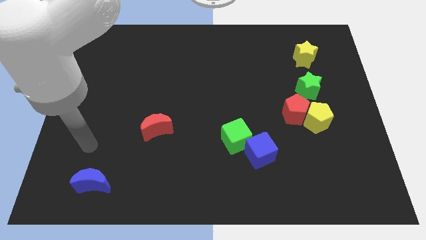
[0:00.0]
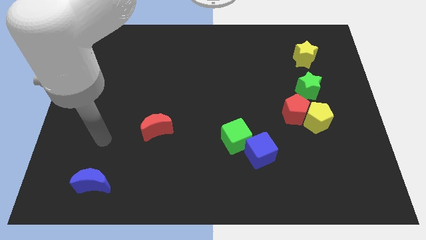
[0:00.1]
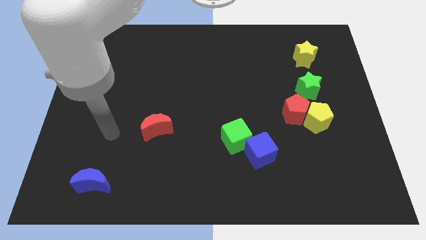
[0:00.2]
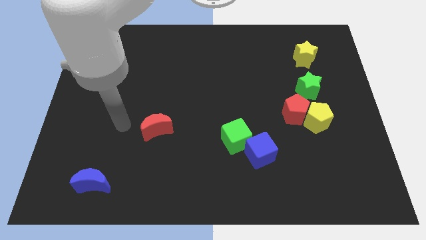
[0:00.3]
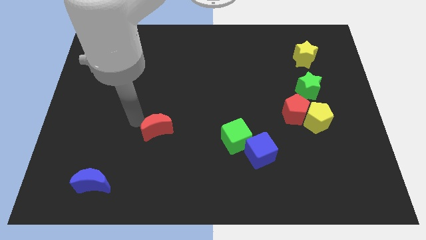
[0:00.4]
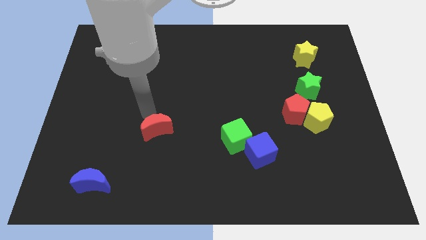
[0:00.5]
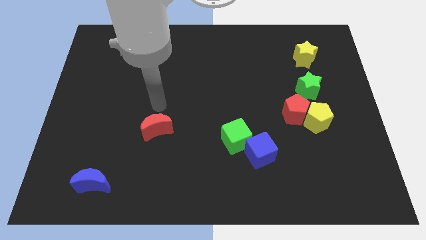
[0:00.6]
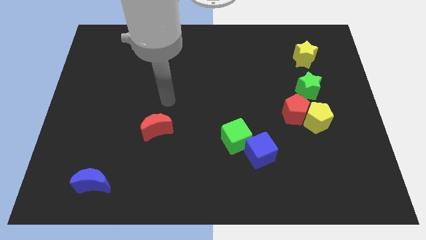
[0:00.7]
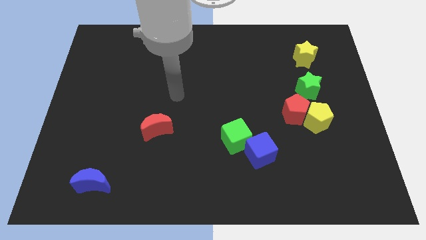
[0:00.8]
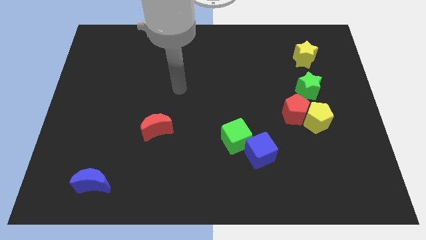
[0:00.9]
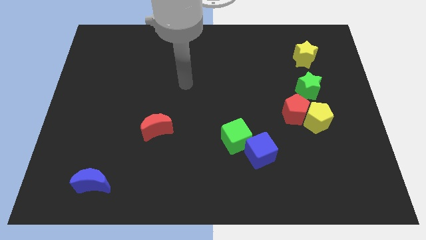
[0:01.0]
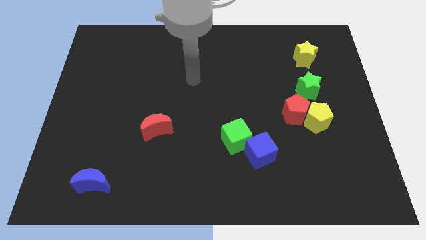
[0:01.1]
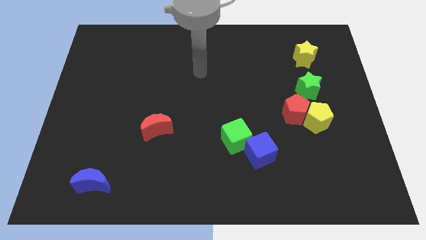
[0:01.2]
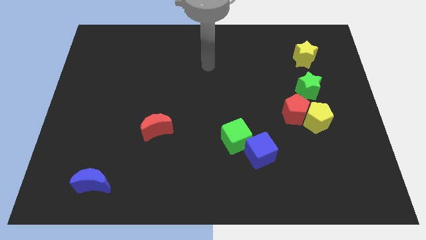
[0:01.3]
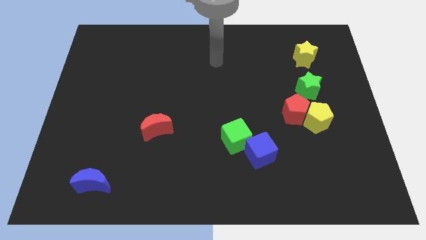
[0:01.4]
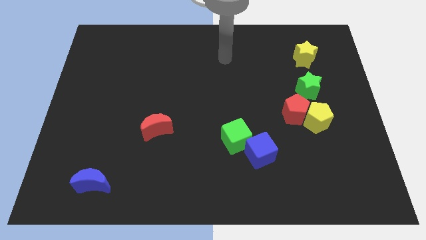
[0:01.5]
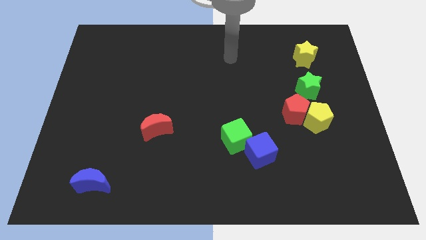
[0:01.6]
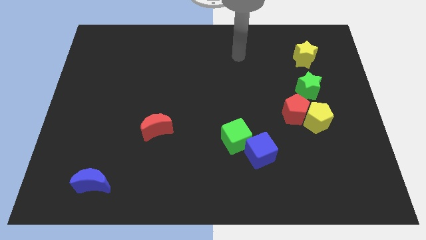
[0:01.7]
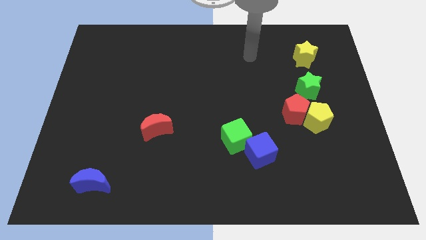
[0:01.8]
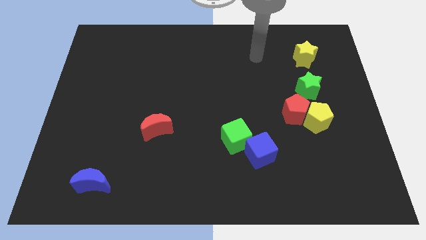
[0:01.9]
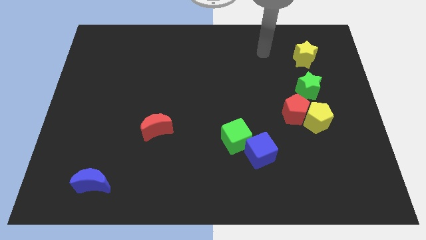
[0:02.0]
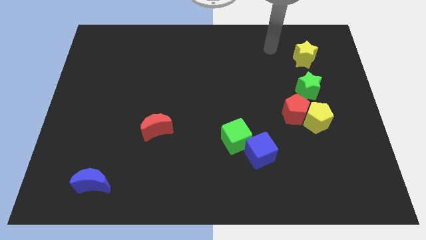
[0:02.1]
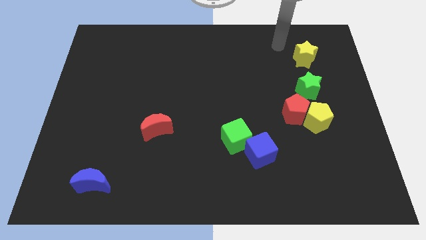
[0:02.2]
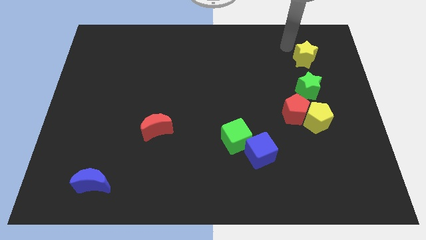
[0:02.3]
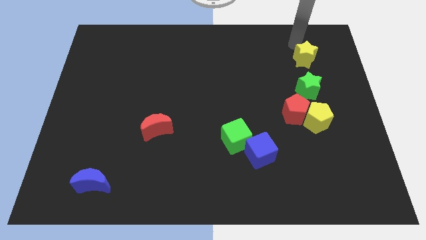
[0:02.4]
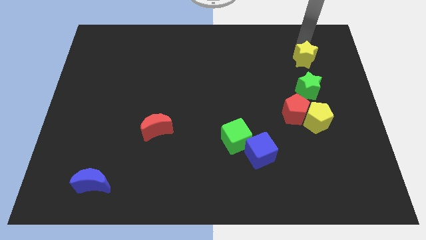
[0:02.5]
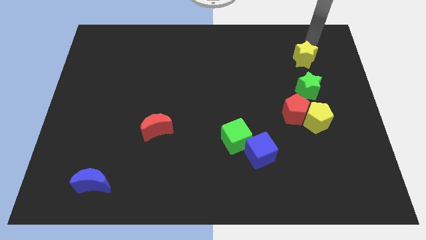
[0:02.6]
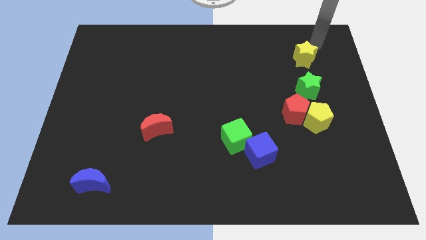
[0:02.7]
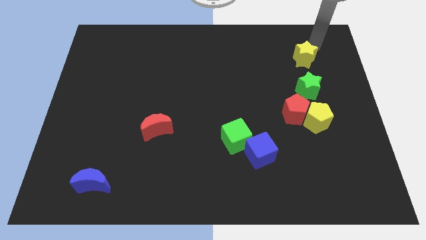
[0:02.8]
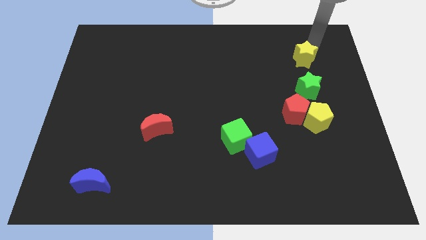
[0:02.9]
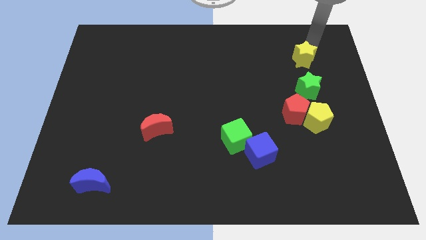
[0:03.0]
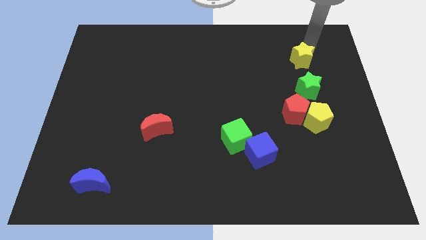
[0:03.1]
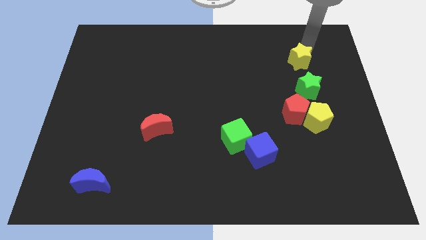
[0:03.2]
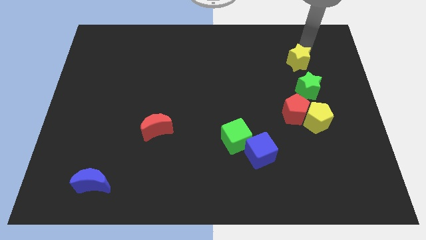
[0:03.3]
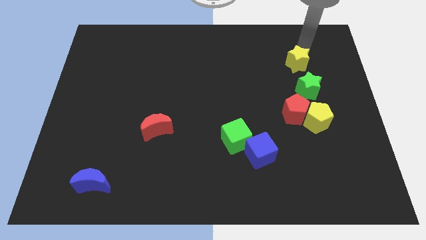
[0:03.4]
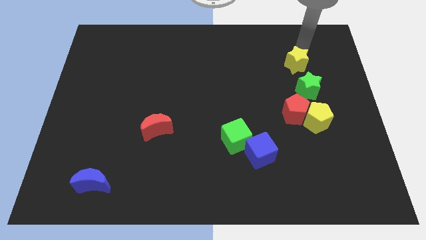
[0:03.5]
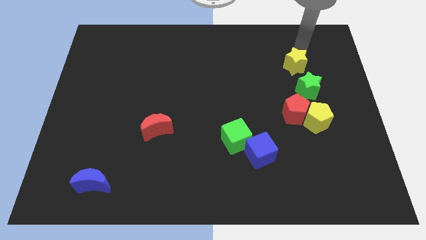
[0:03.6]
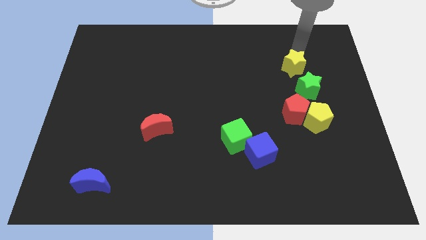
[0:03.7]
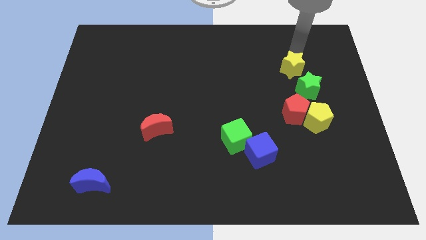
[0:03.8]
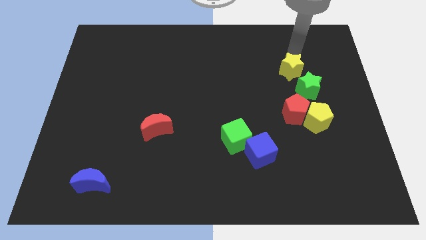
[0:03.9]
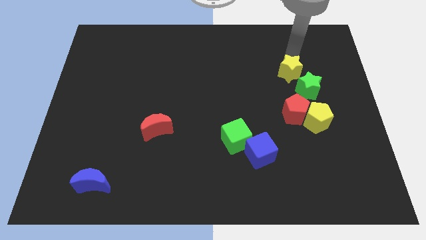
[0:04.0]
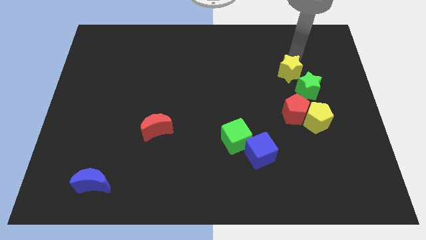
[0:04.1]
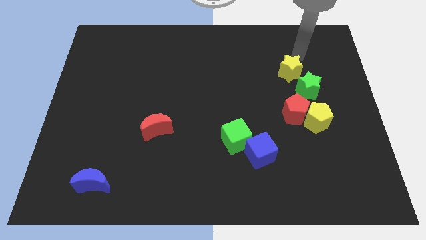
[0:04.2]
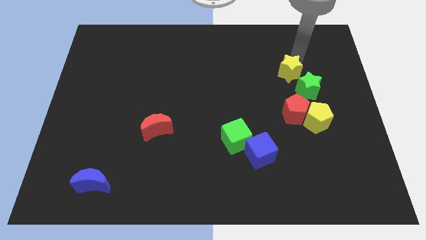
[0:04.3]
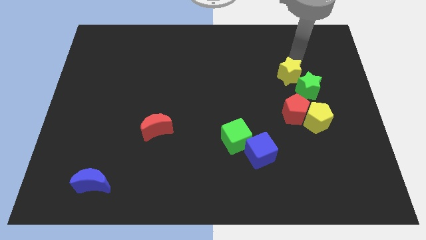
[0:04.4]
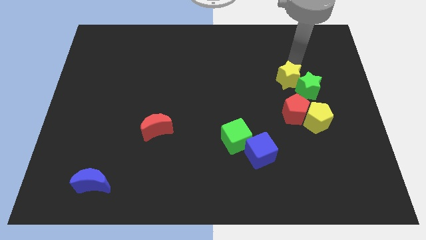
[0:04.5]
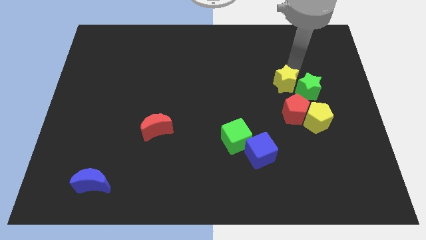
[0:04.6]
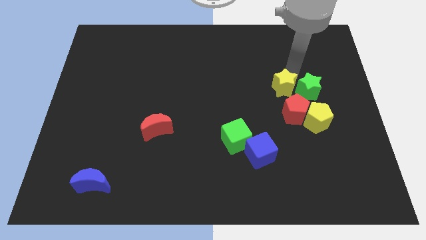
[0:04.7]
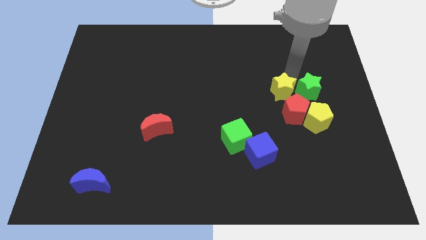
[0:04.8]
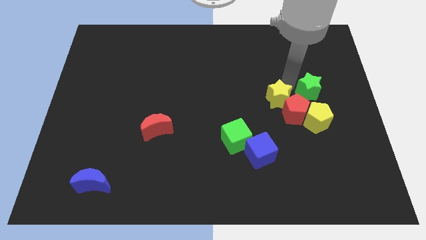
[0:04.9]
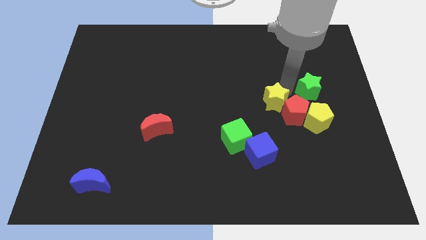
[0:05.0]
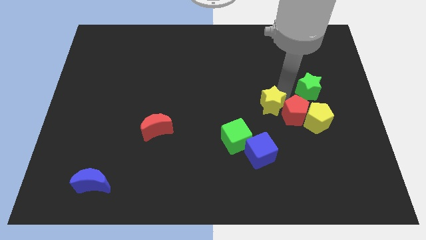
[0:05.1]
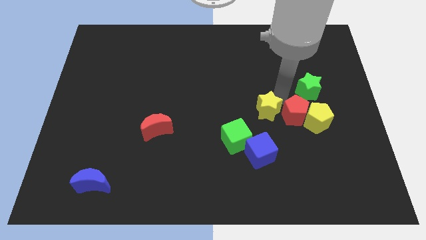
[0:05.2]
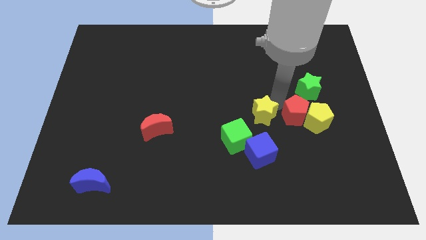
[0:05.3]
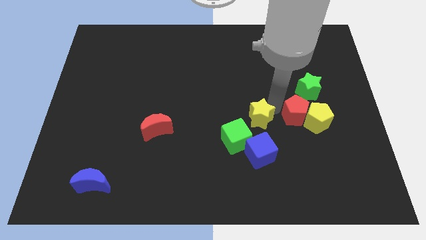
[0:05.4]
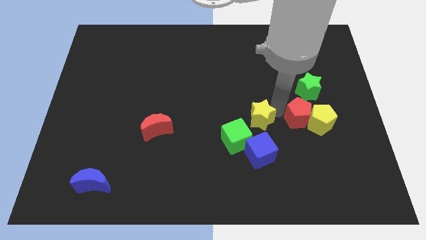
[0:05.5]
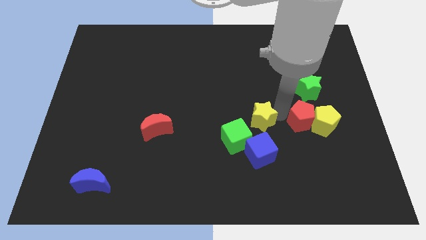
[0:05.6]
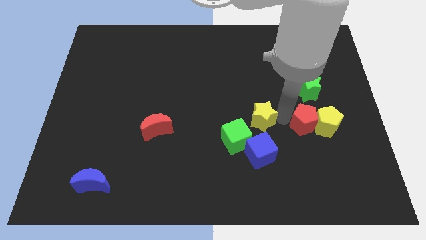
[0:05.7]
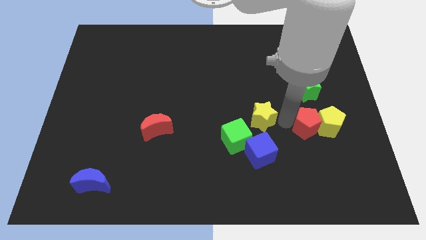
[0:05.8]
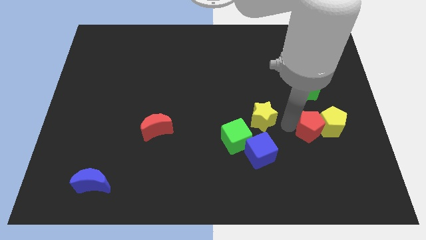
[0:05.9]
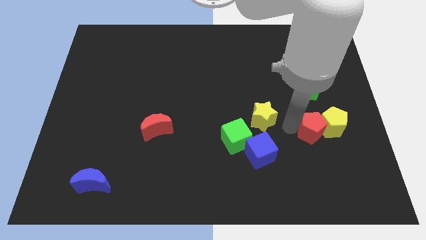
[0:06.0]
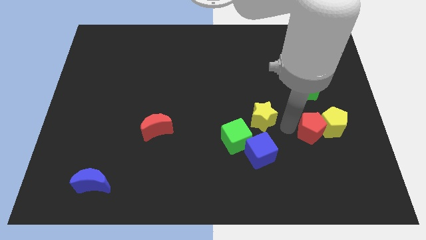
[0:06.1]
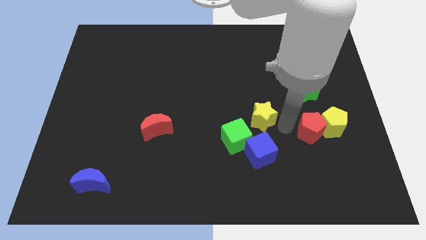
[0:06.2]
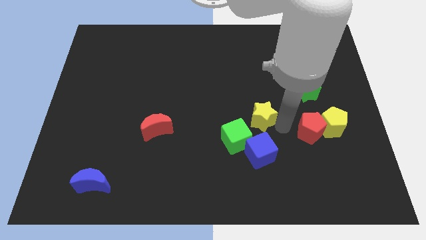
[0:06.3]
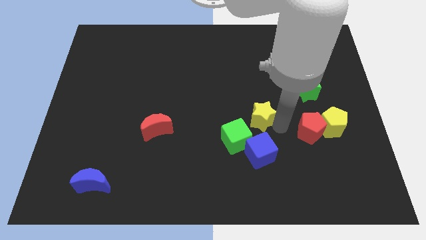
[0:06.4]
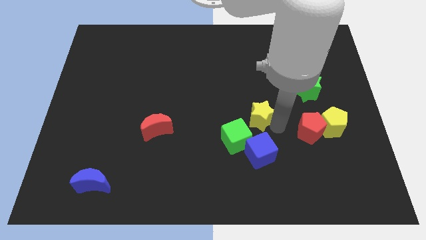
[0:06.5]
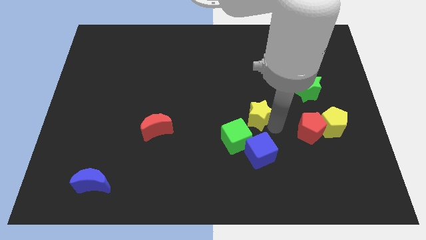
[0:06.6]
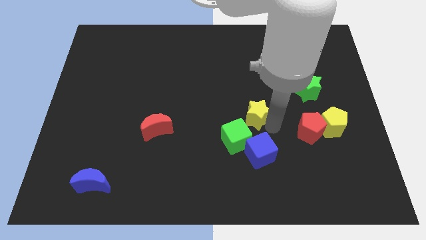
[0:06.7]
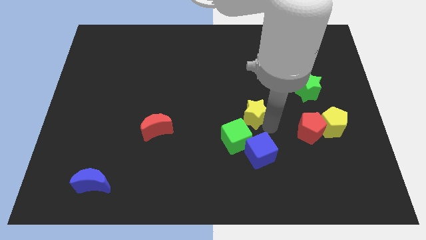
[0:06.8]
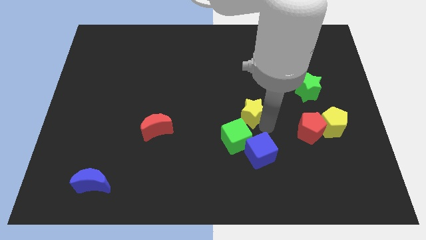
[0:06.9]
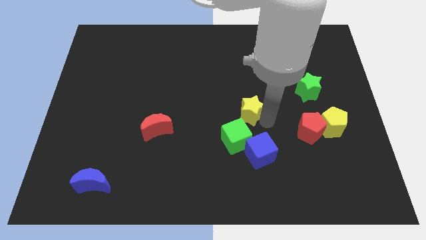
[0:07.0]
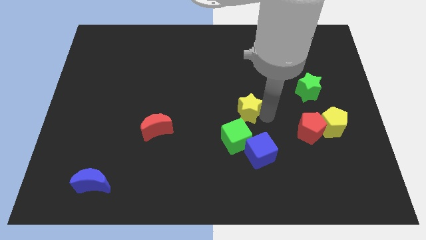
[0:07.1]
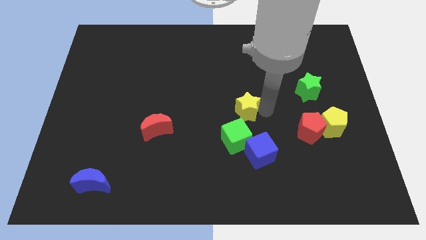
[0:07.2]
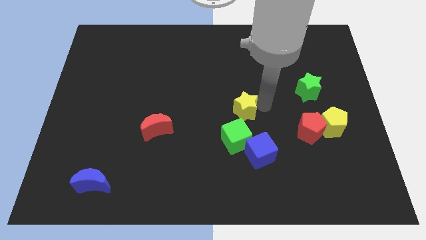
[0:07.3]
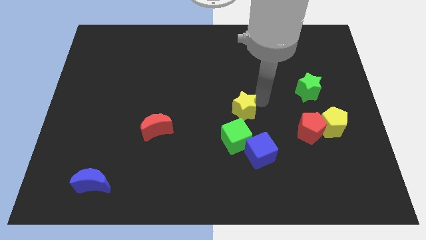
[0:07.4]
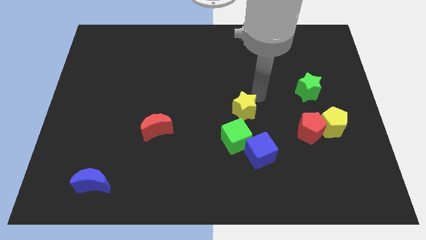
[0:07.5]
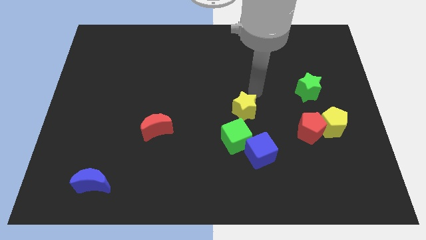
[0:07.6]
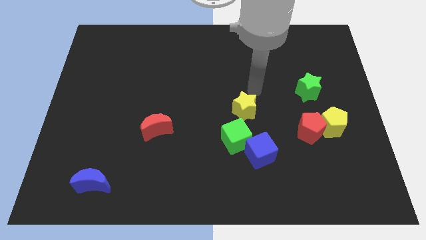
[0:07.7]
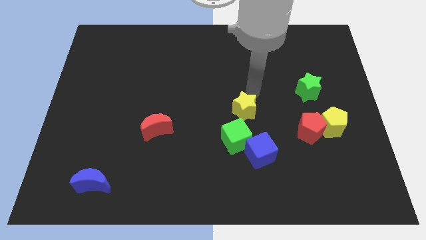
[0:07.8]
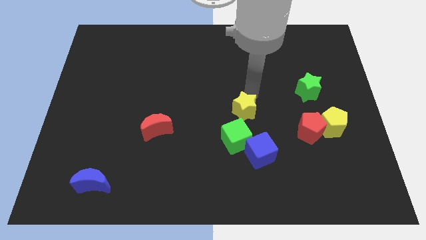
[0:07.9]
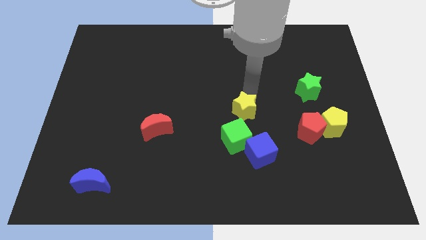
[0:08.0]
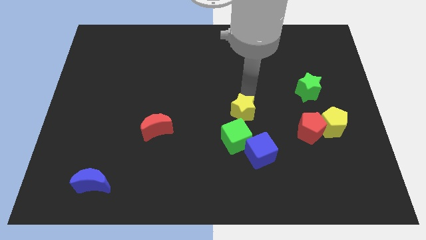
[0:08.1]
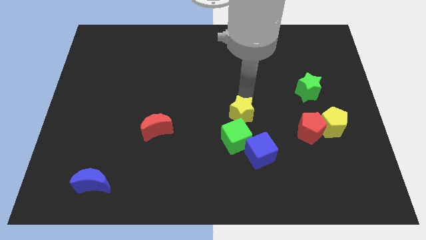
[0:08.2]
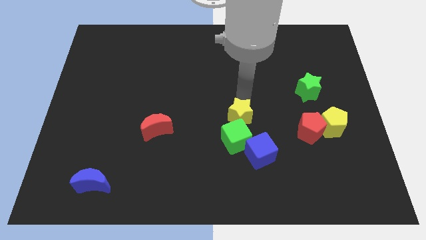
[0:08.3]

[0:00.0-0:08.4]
push the yellow star to the top left side of the blue cube
